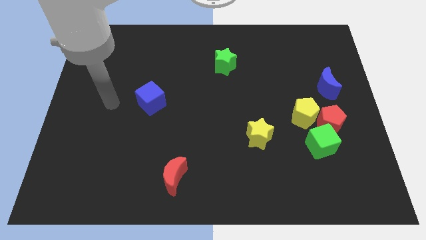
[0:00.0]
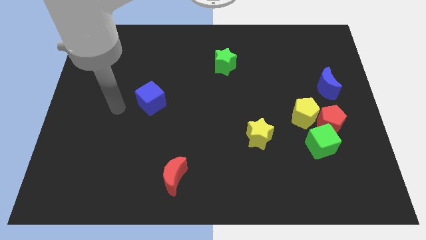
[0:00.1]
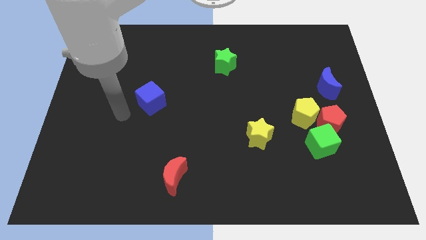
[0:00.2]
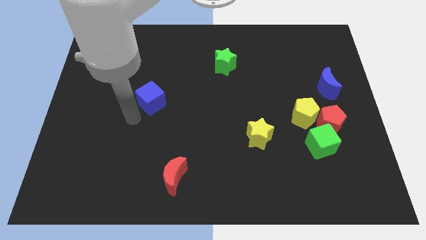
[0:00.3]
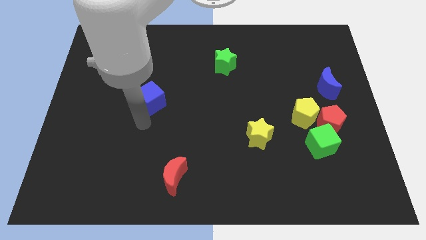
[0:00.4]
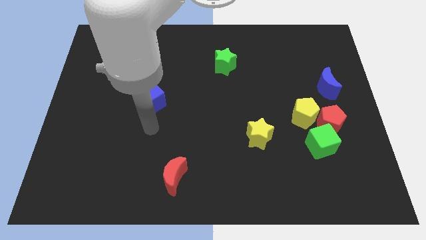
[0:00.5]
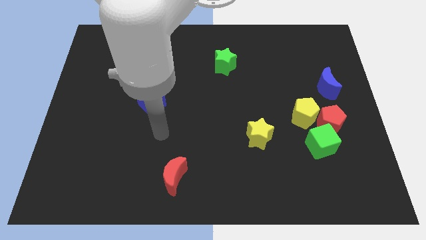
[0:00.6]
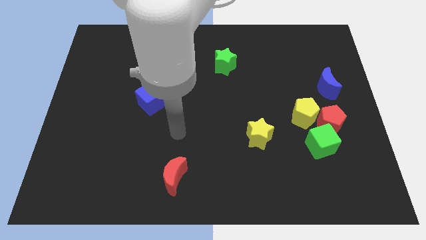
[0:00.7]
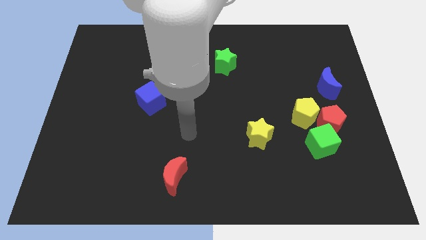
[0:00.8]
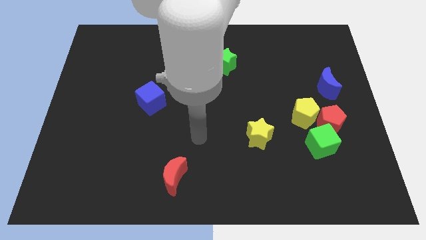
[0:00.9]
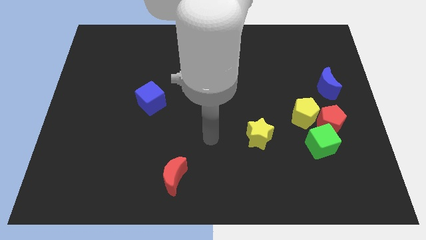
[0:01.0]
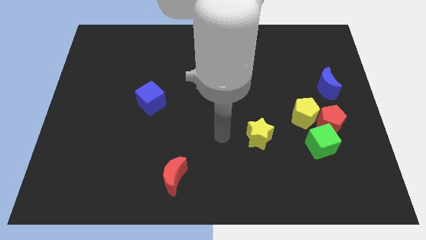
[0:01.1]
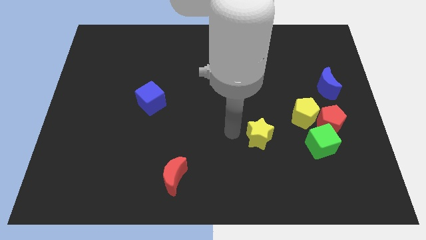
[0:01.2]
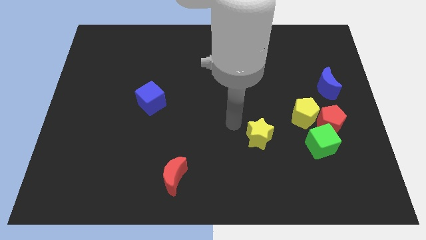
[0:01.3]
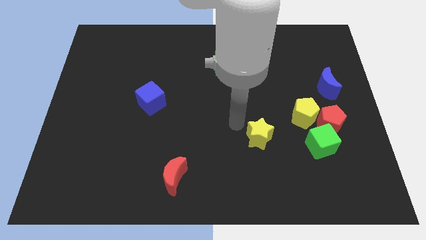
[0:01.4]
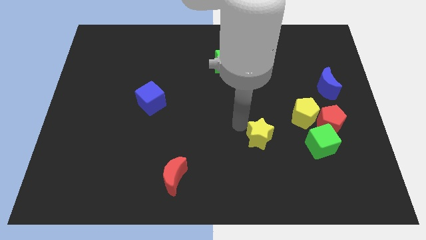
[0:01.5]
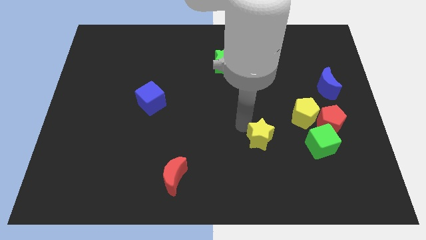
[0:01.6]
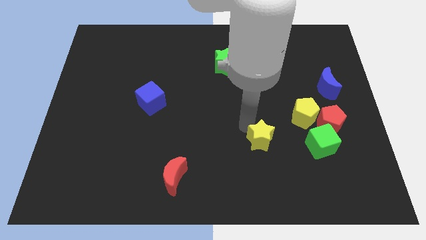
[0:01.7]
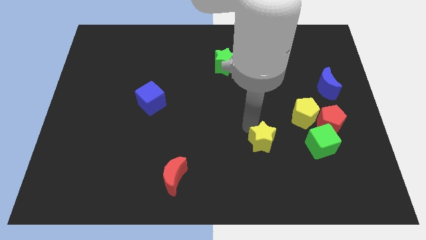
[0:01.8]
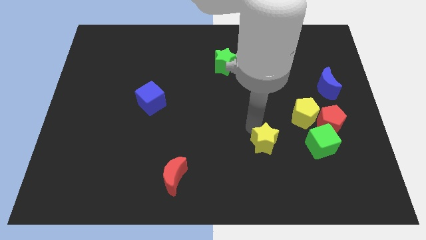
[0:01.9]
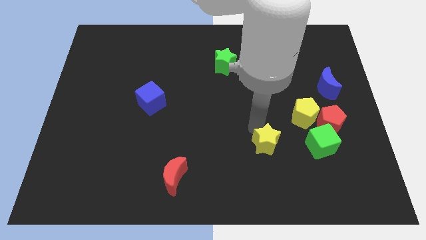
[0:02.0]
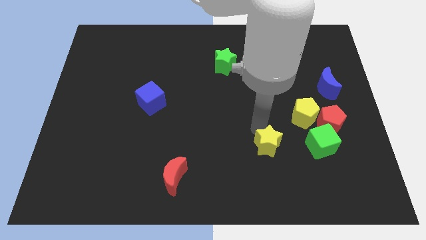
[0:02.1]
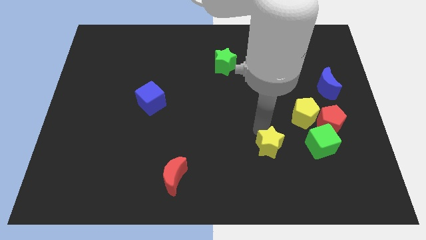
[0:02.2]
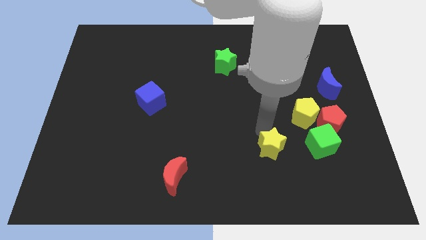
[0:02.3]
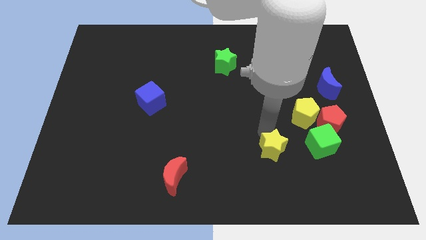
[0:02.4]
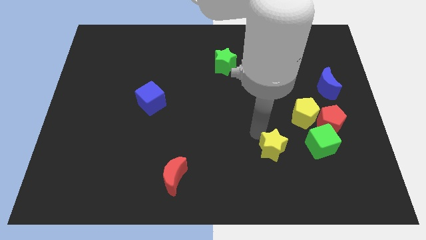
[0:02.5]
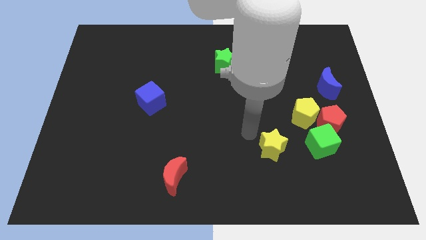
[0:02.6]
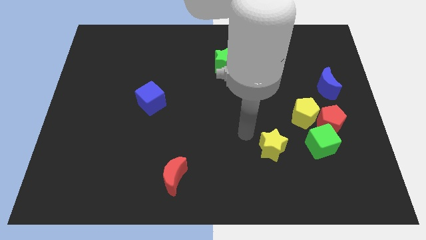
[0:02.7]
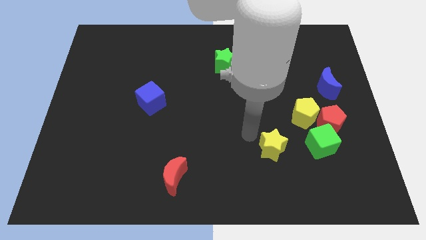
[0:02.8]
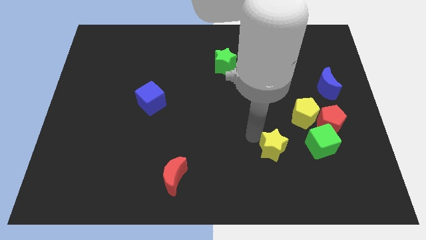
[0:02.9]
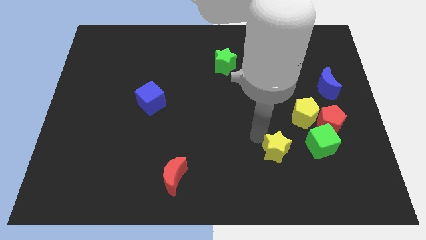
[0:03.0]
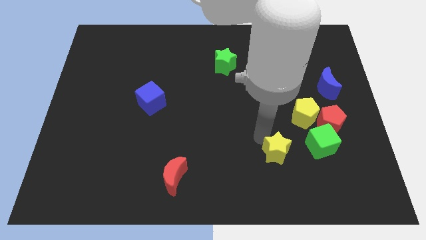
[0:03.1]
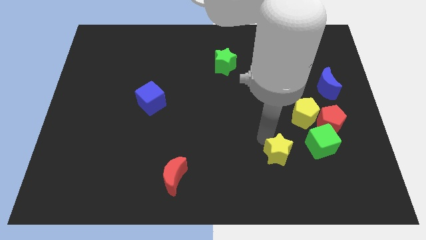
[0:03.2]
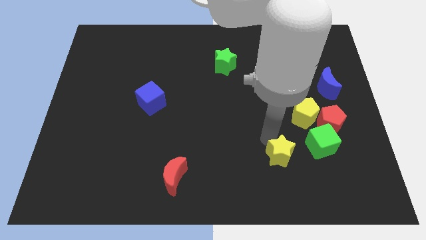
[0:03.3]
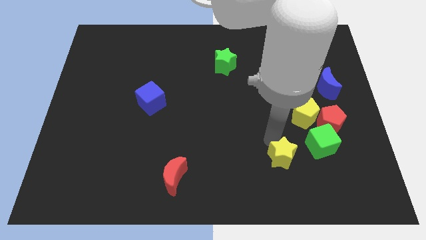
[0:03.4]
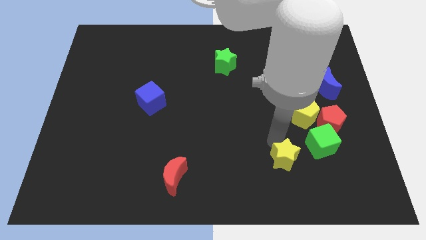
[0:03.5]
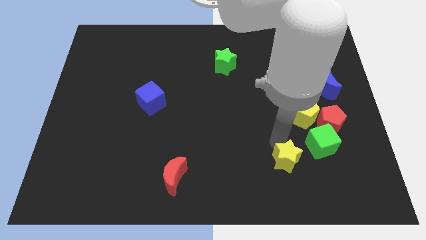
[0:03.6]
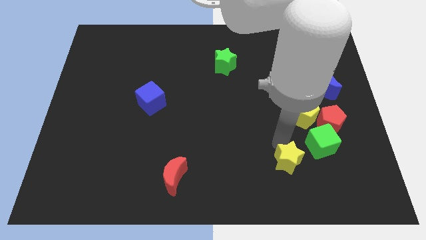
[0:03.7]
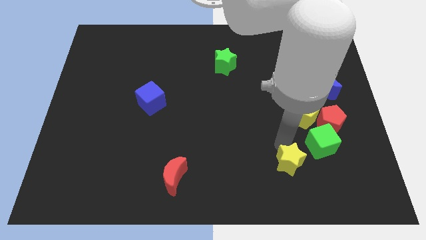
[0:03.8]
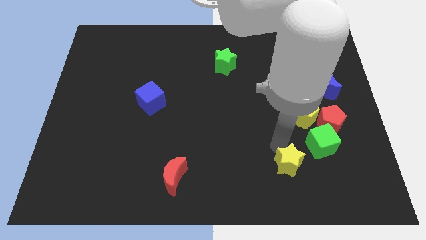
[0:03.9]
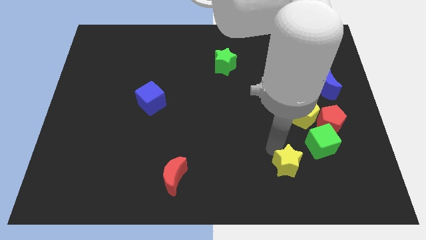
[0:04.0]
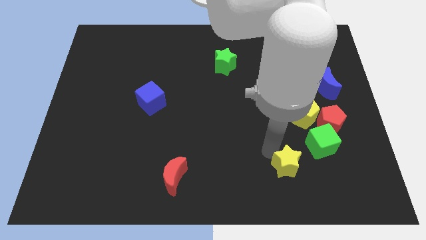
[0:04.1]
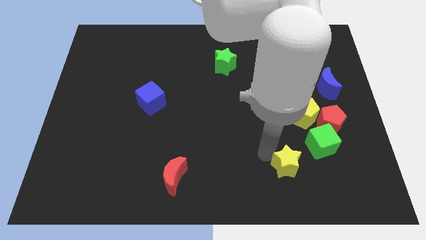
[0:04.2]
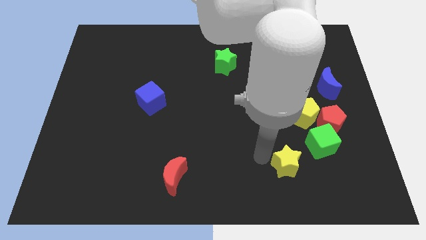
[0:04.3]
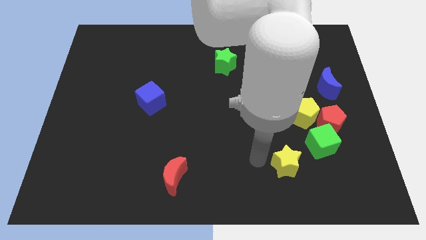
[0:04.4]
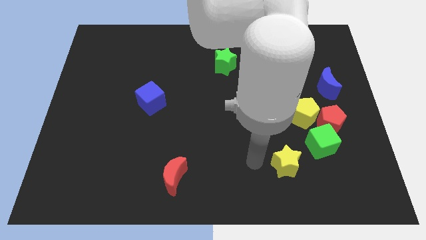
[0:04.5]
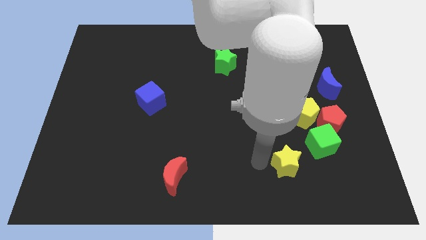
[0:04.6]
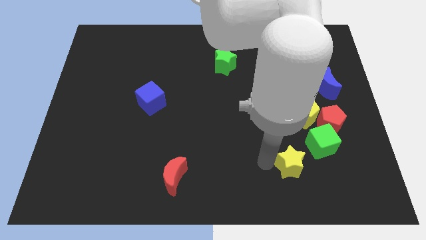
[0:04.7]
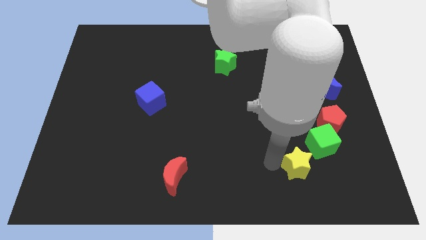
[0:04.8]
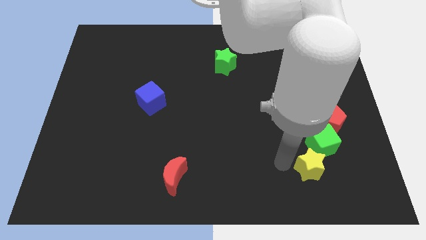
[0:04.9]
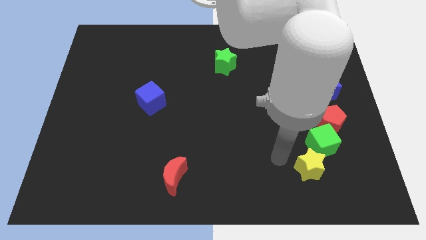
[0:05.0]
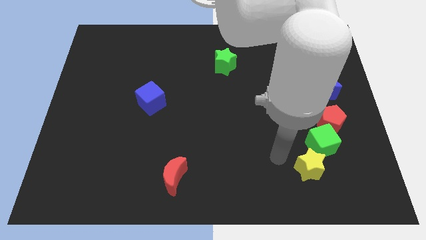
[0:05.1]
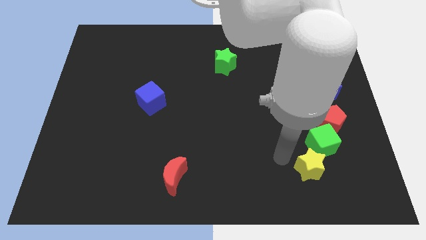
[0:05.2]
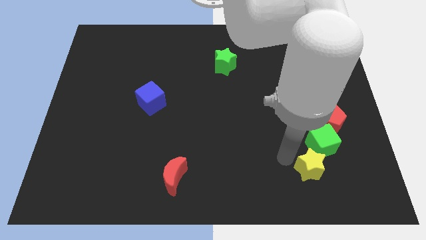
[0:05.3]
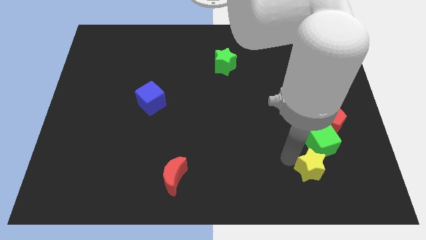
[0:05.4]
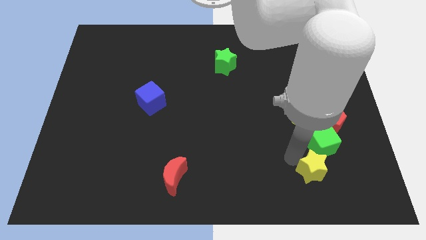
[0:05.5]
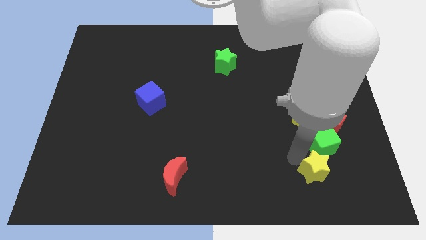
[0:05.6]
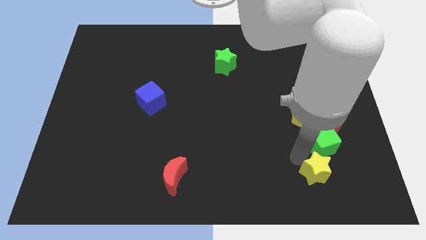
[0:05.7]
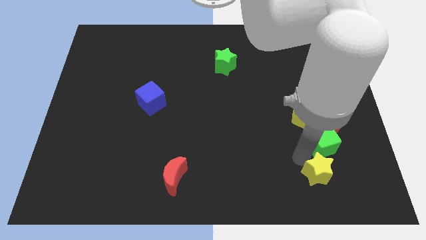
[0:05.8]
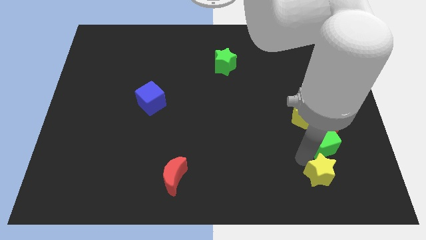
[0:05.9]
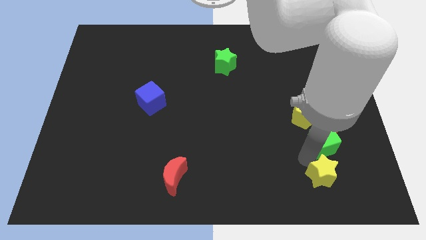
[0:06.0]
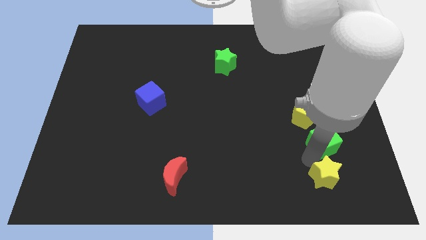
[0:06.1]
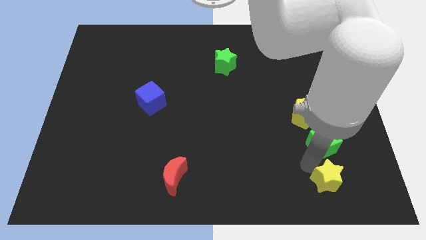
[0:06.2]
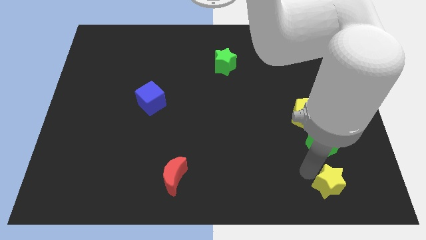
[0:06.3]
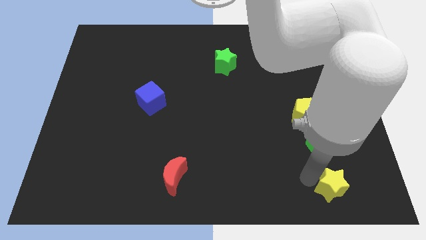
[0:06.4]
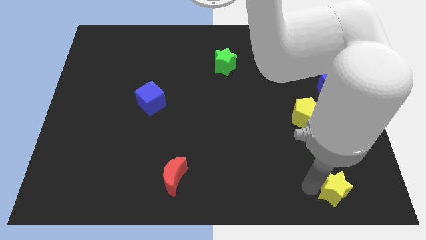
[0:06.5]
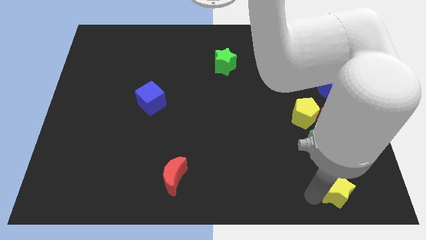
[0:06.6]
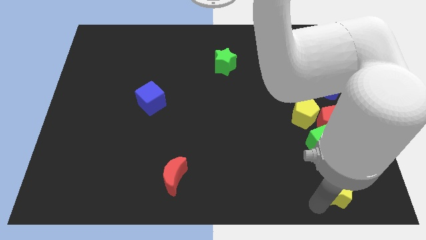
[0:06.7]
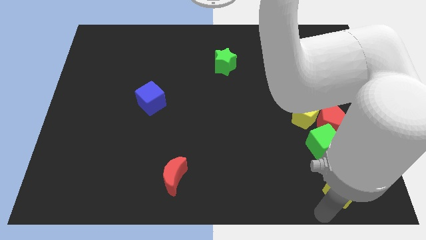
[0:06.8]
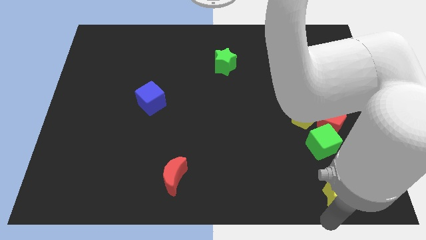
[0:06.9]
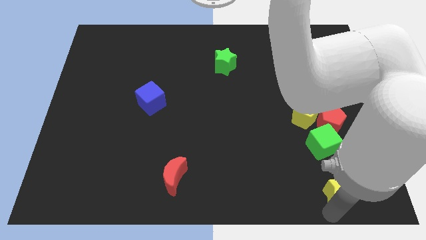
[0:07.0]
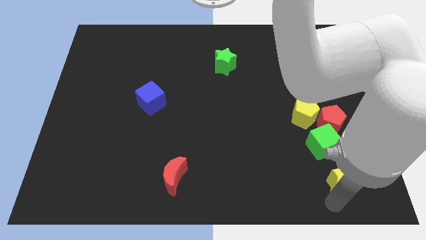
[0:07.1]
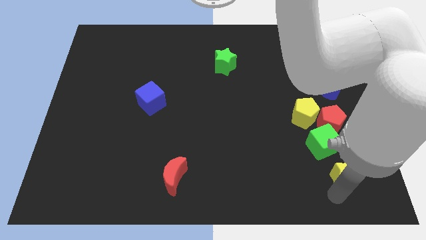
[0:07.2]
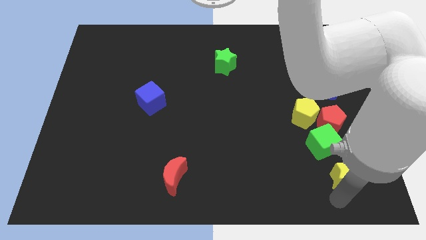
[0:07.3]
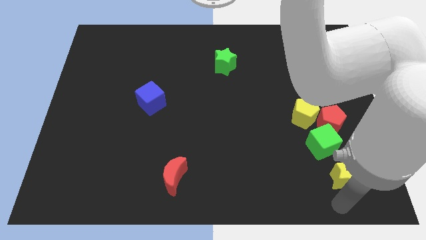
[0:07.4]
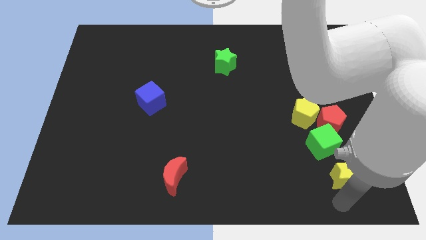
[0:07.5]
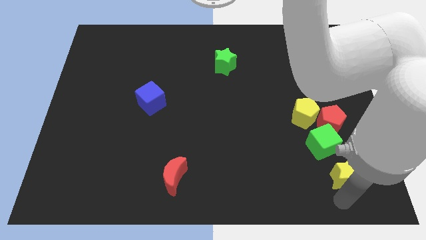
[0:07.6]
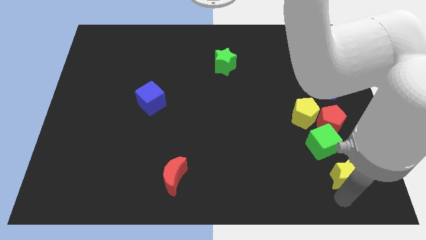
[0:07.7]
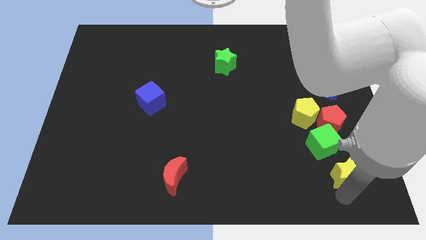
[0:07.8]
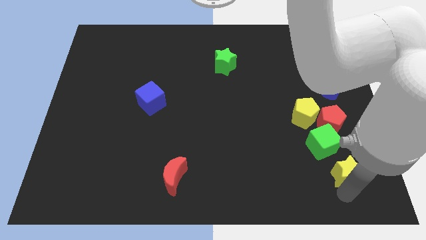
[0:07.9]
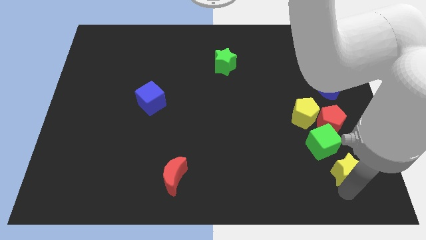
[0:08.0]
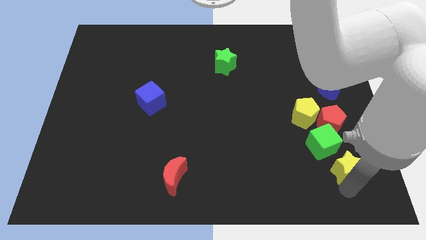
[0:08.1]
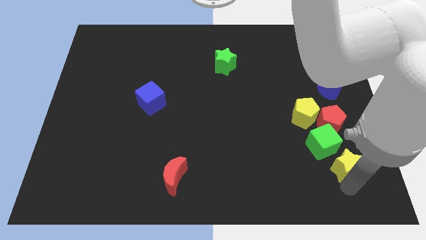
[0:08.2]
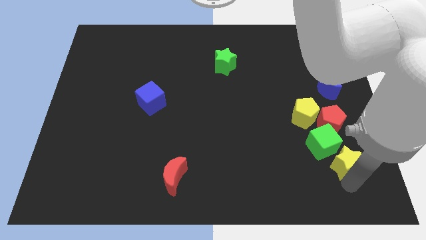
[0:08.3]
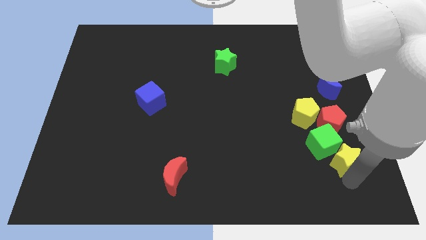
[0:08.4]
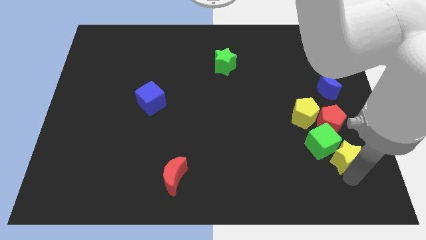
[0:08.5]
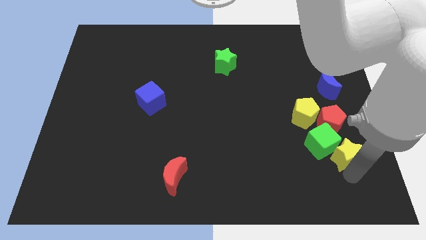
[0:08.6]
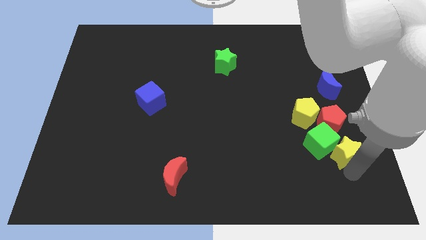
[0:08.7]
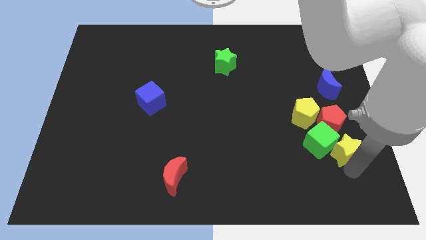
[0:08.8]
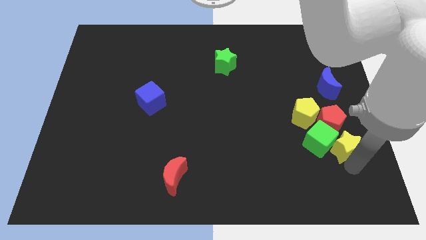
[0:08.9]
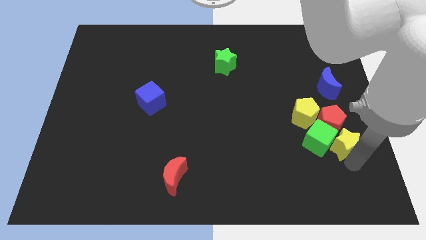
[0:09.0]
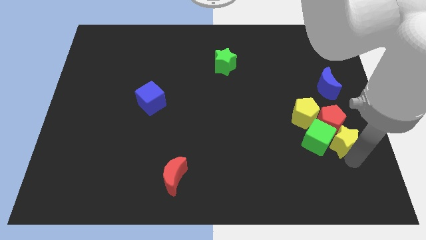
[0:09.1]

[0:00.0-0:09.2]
push the yellow star below the blue moon
